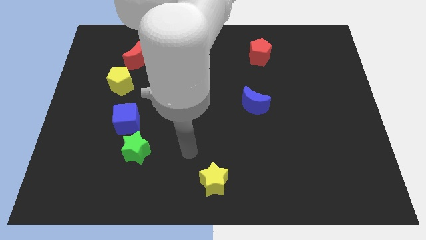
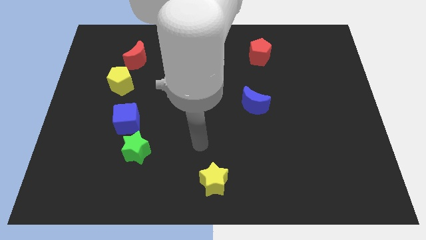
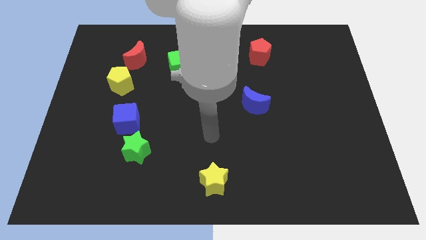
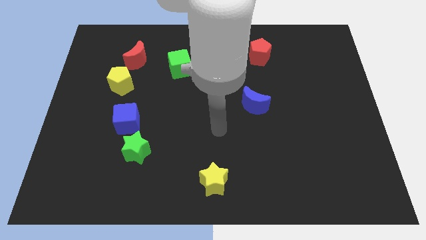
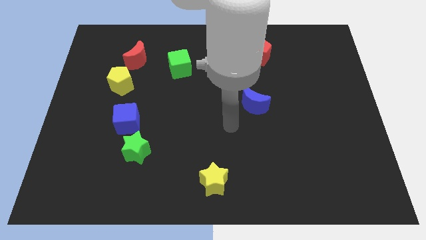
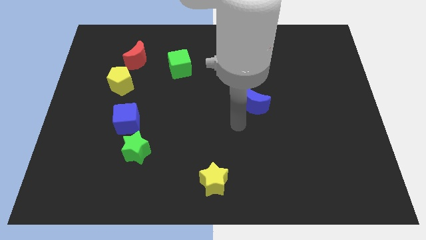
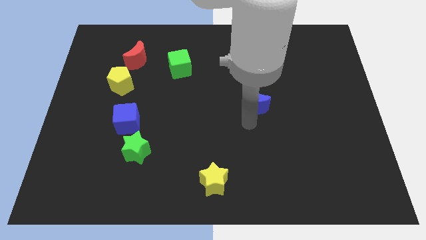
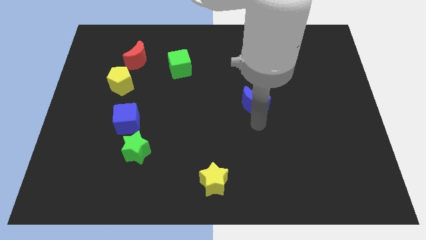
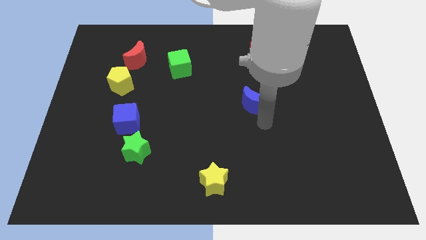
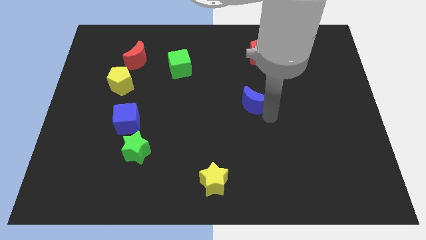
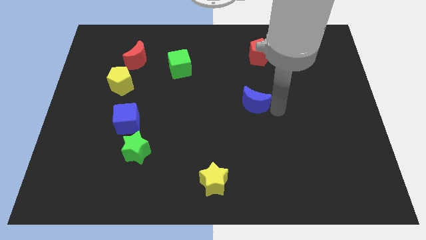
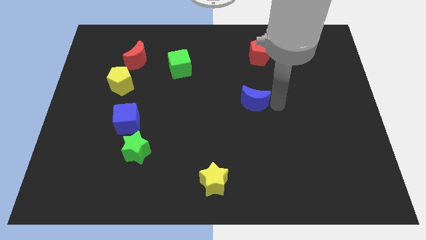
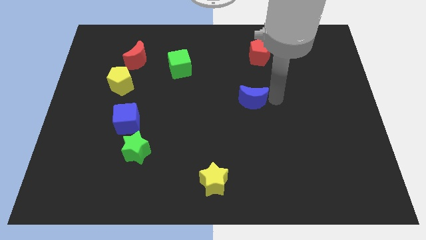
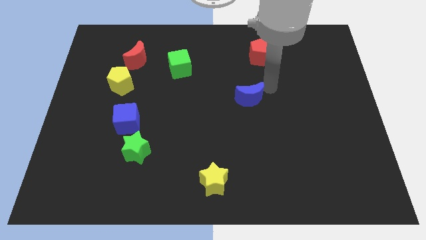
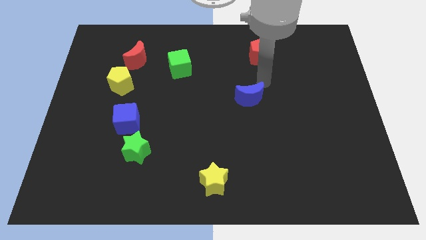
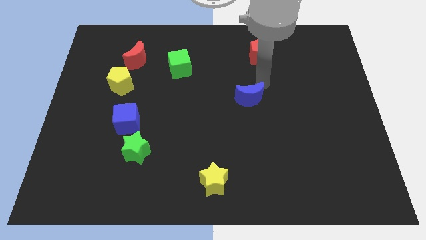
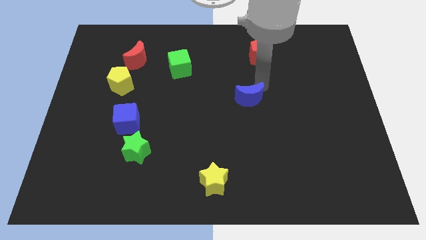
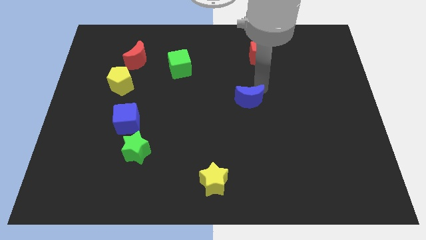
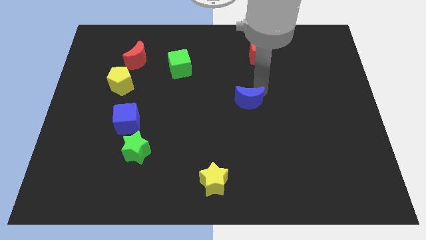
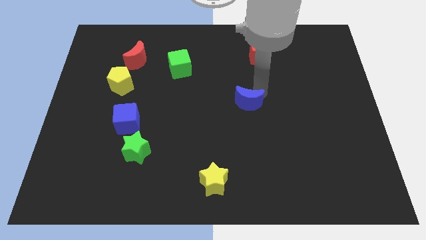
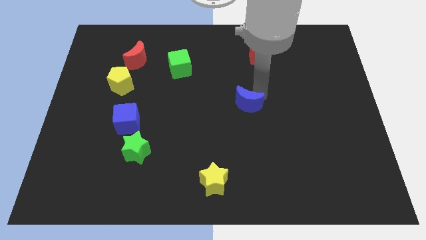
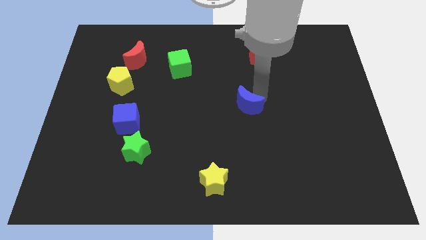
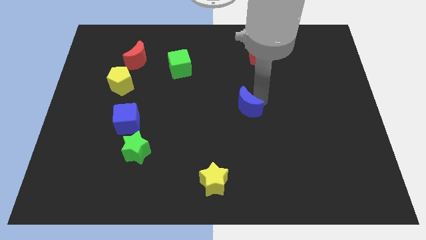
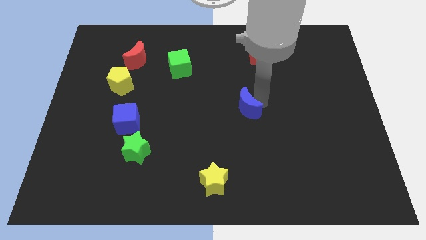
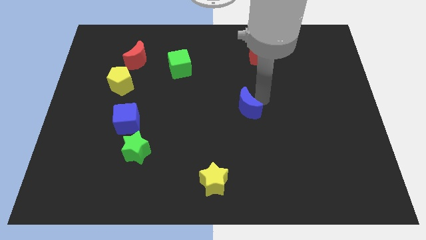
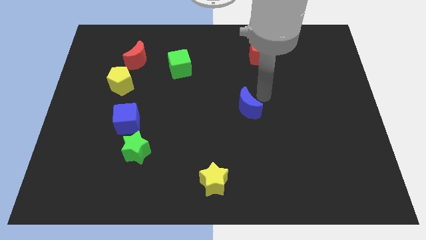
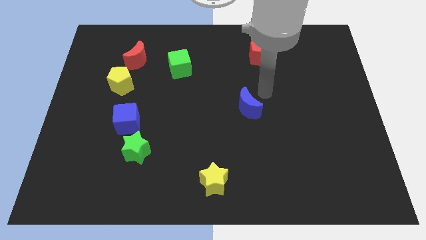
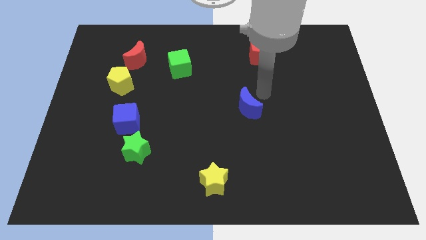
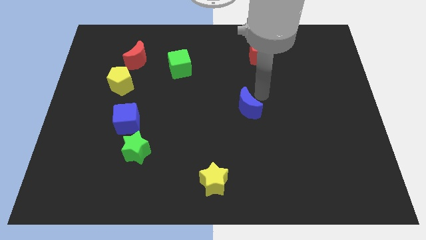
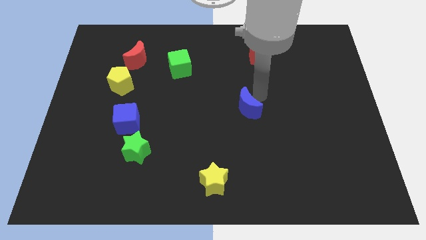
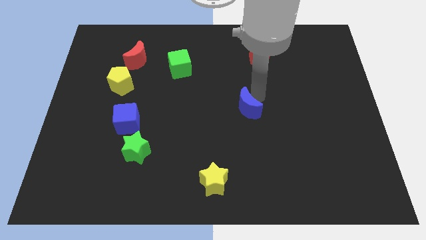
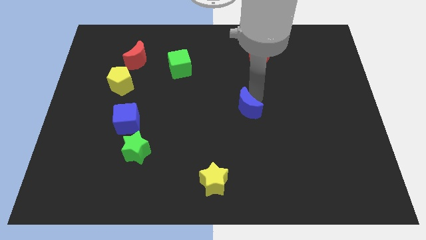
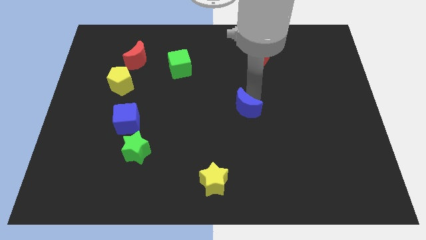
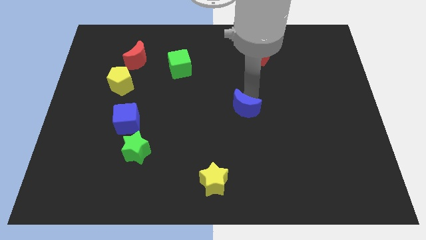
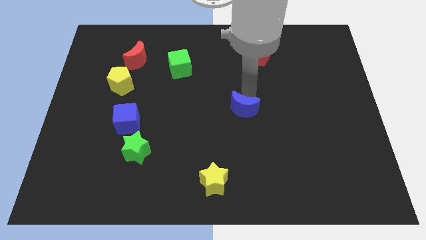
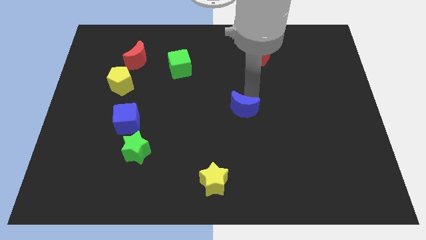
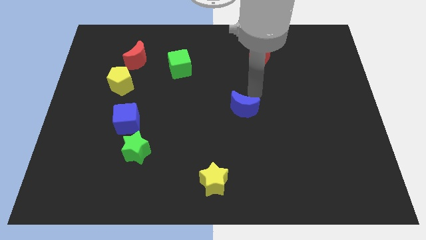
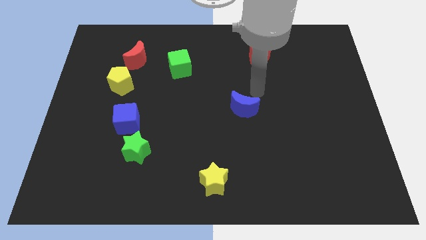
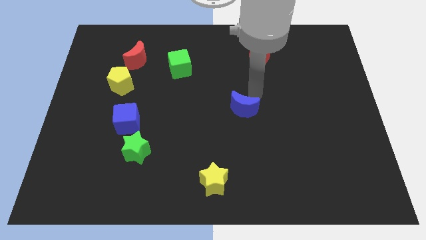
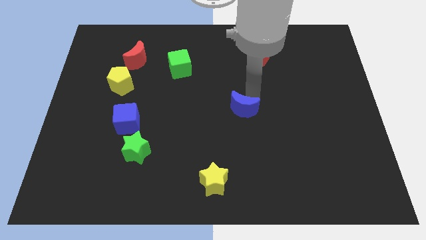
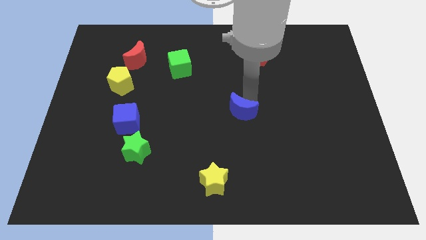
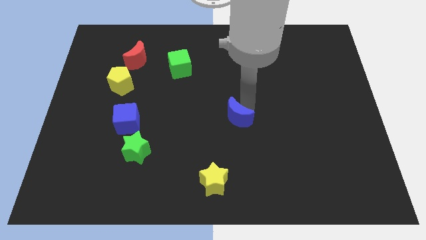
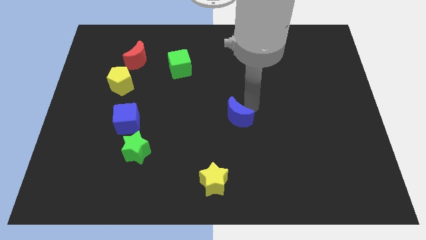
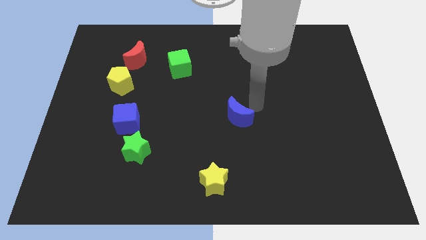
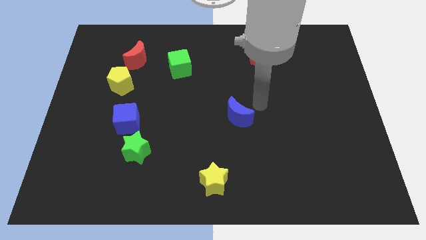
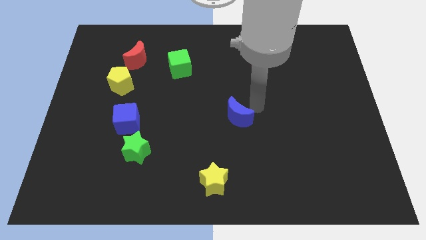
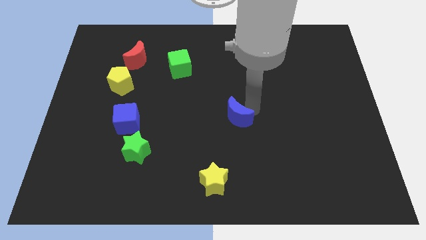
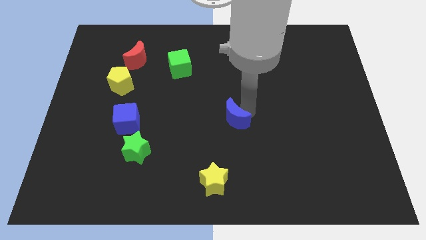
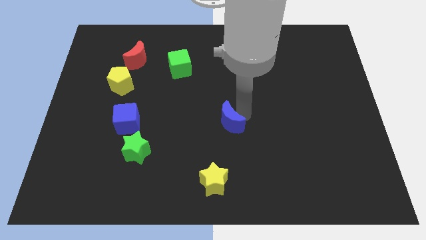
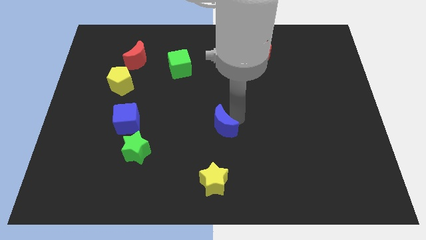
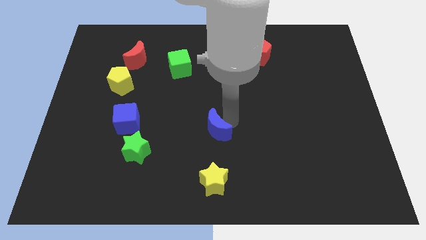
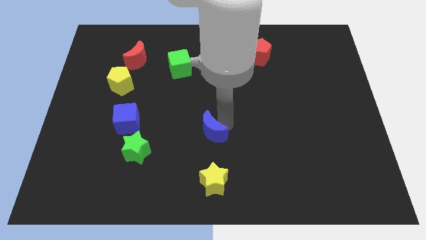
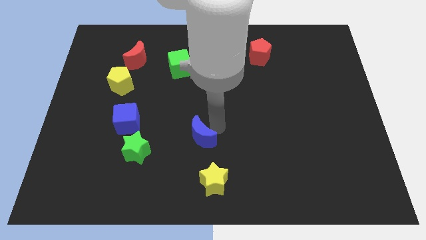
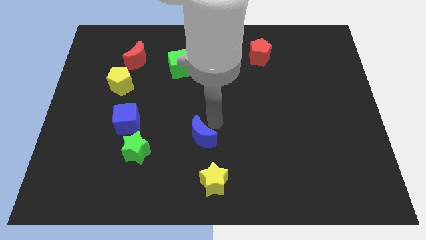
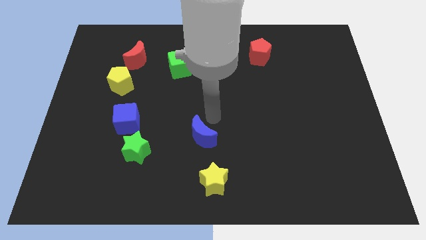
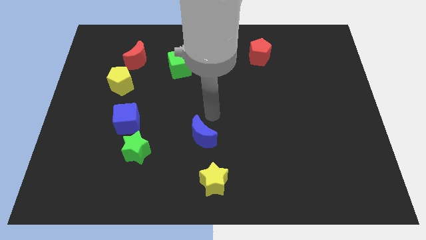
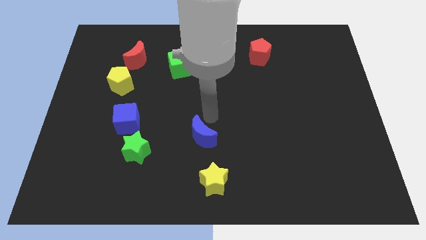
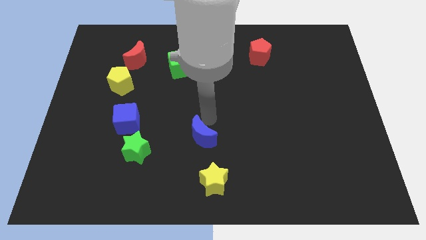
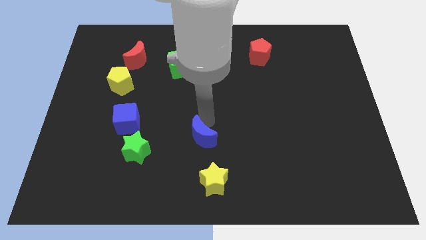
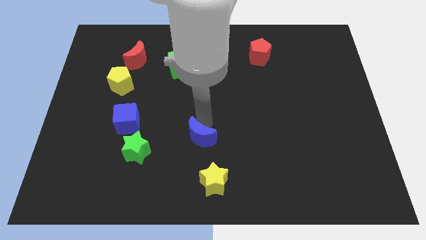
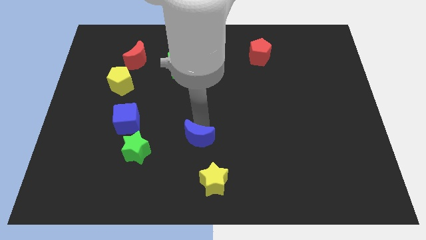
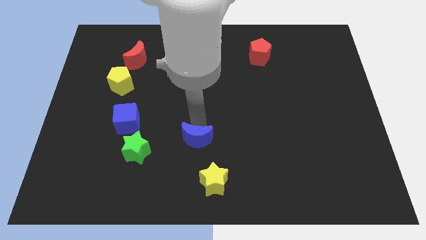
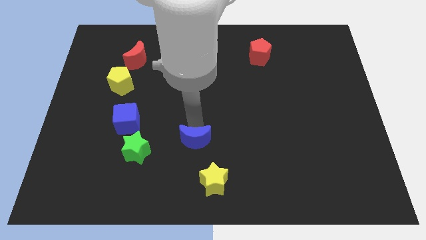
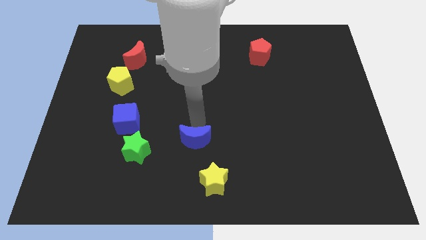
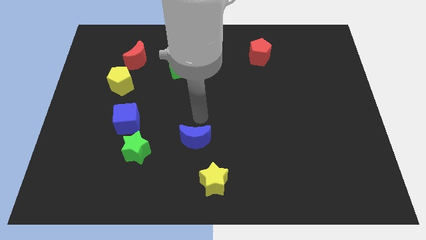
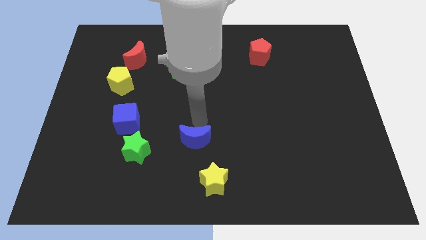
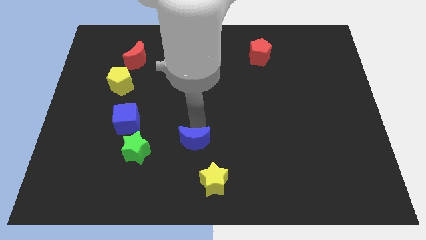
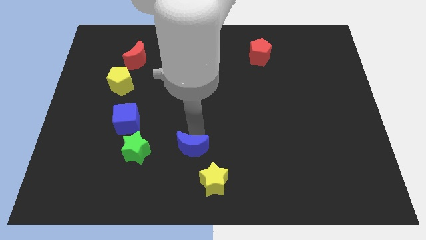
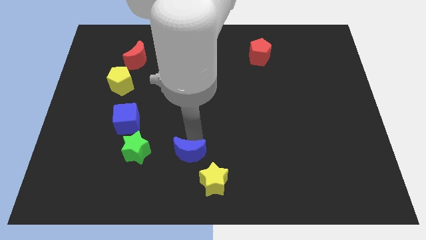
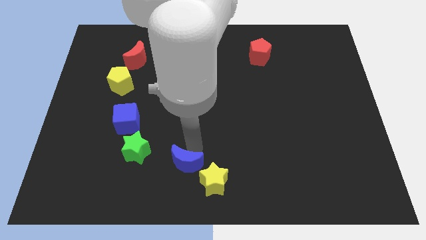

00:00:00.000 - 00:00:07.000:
push the blue moon to the left side of the yellow star

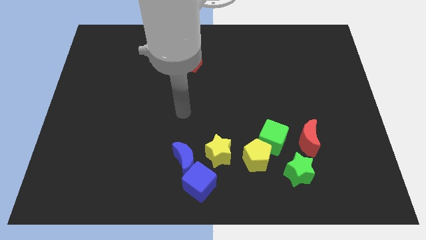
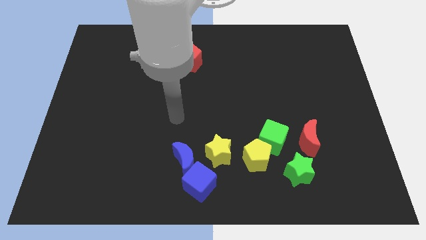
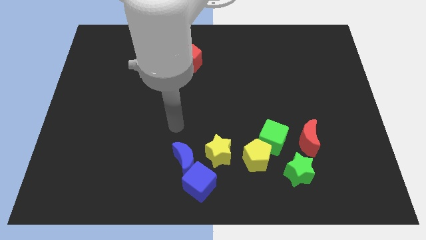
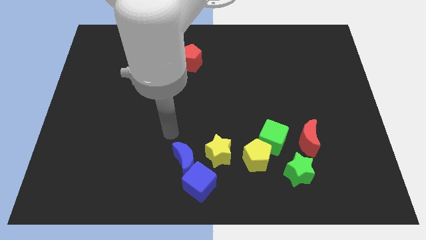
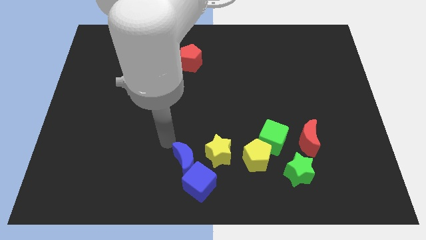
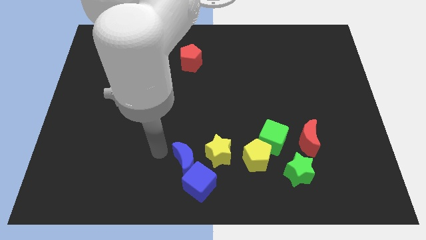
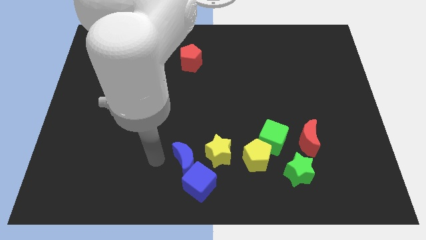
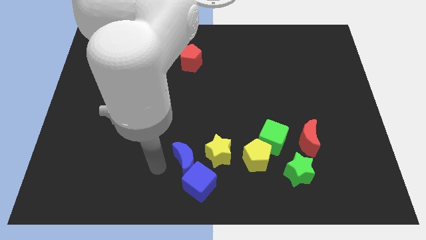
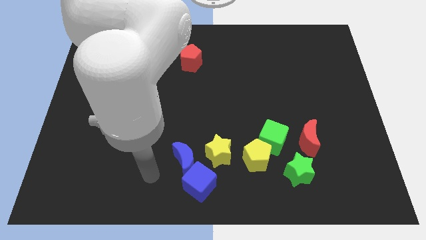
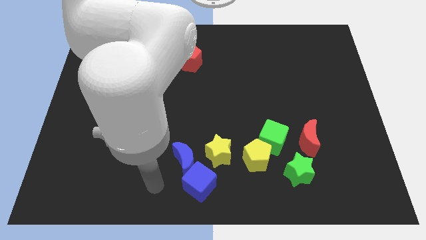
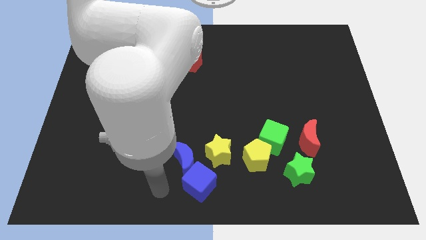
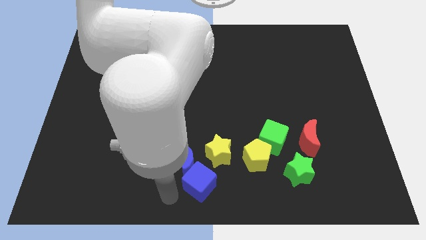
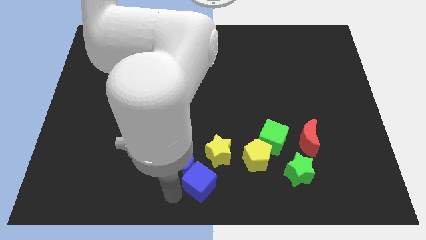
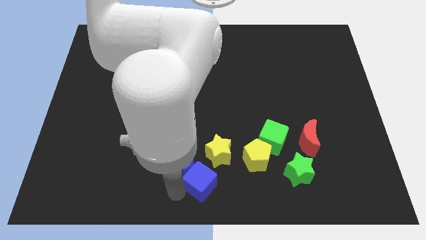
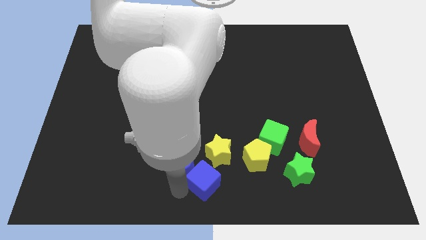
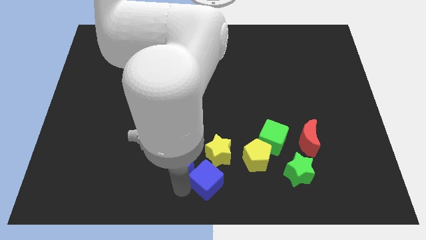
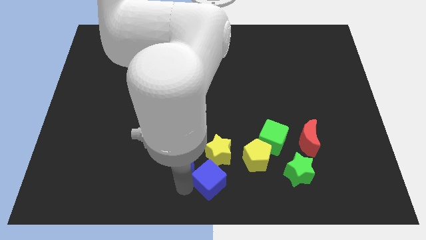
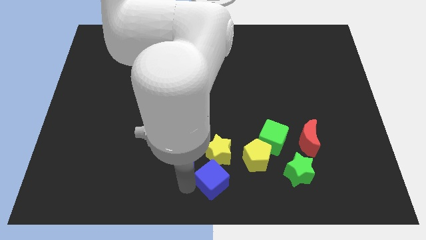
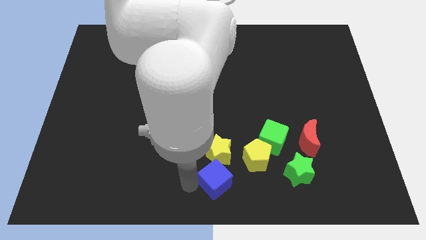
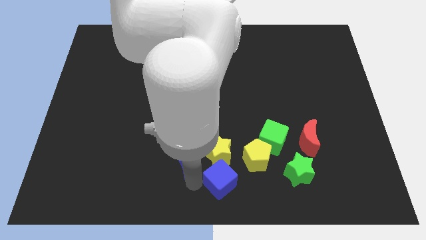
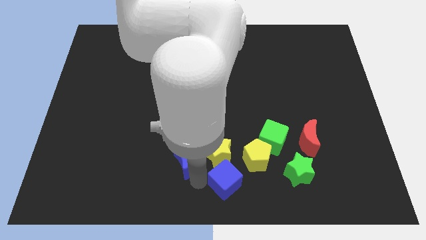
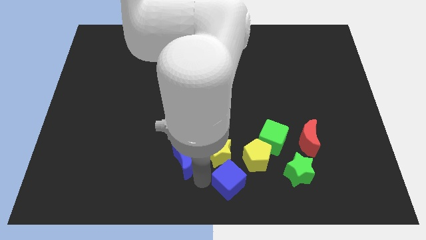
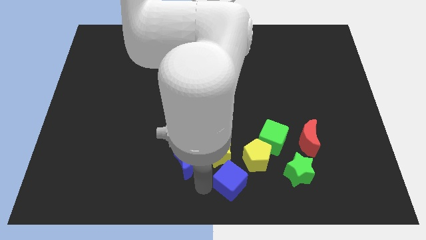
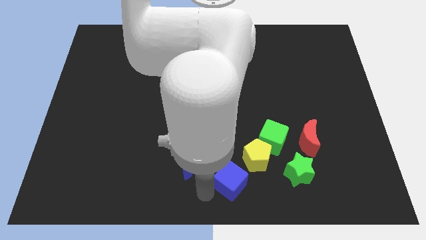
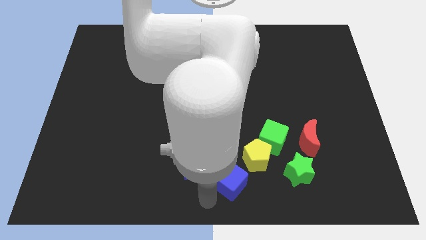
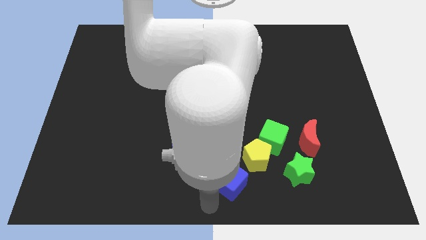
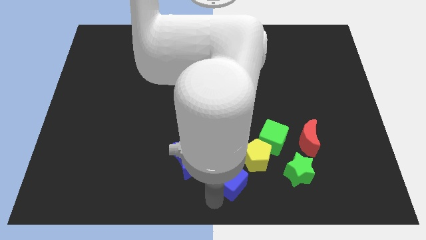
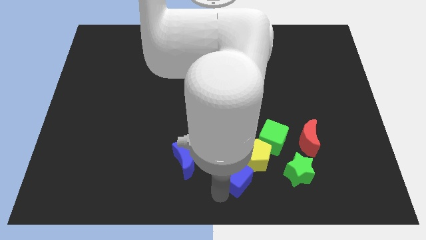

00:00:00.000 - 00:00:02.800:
push the blue cube diagonally down and to the left of the green cube
